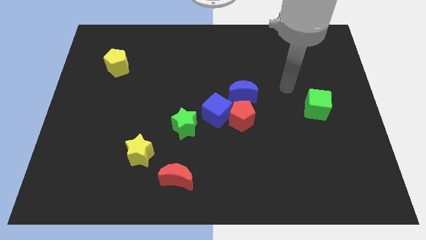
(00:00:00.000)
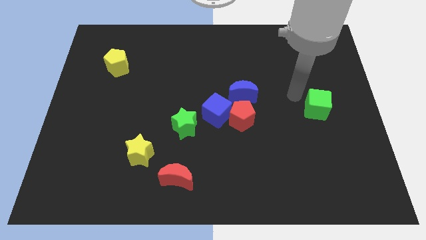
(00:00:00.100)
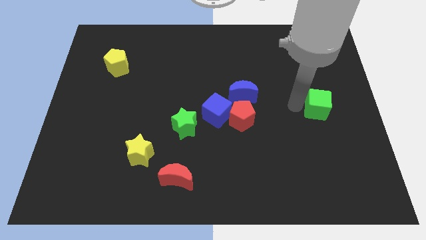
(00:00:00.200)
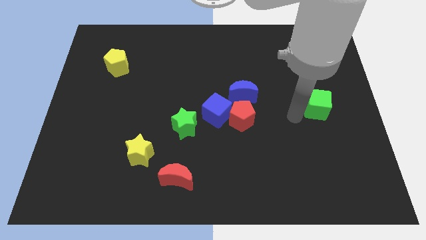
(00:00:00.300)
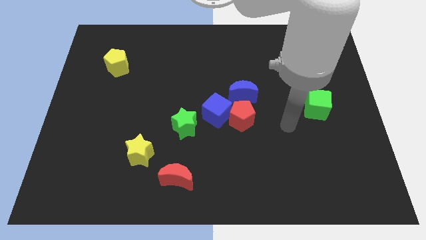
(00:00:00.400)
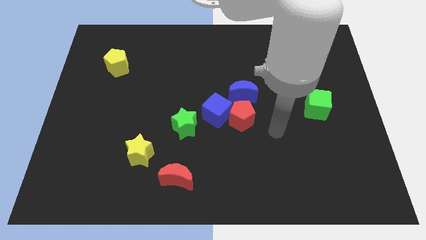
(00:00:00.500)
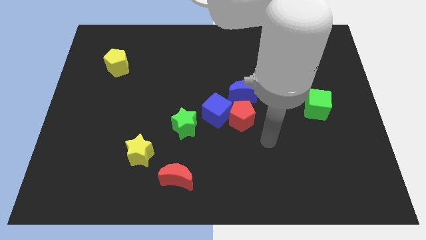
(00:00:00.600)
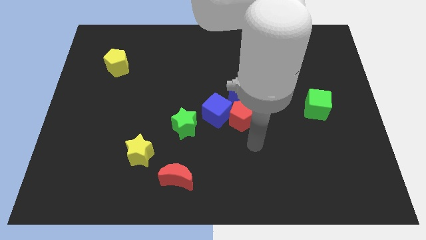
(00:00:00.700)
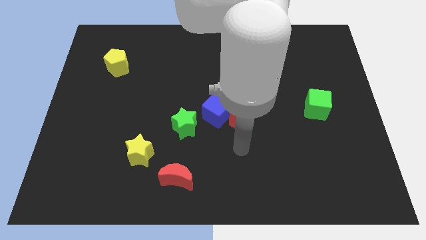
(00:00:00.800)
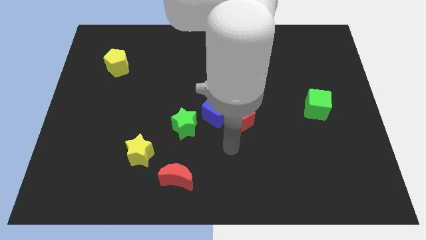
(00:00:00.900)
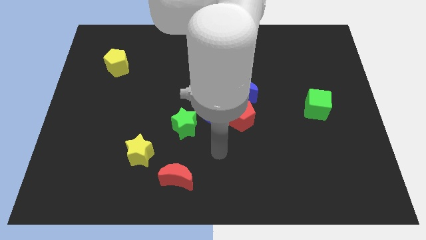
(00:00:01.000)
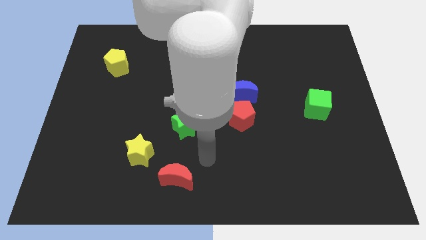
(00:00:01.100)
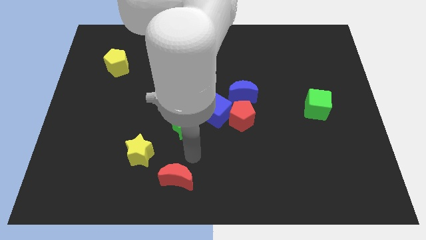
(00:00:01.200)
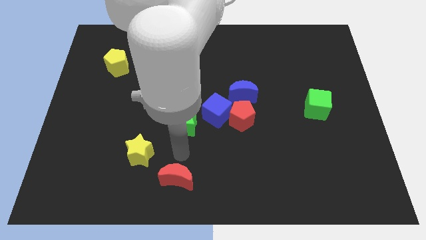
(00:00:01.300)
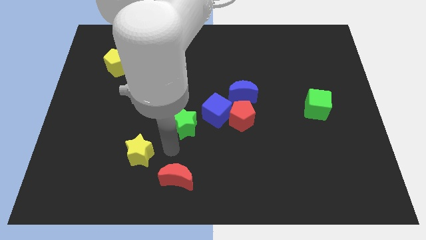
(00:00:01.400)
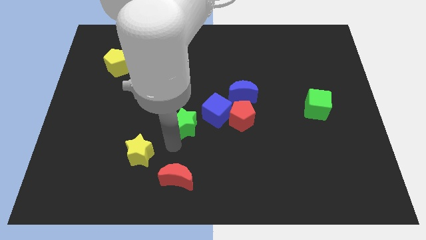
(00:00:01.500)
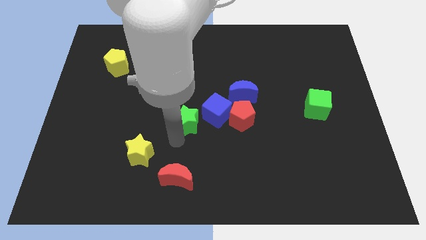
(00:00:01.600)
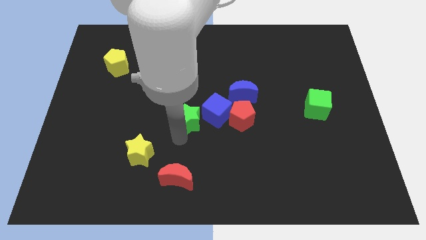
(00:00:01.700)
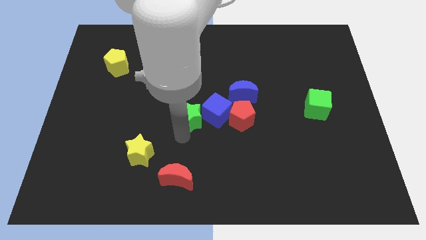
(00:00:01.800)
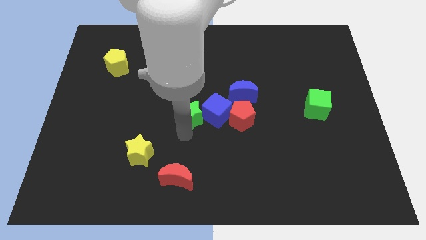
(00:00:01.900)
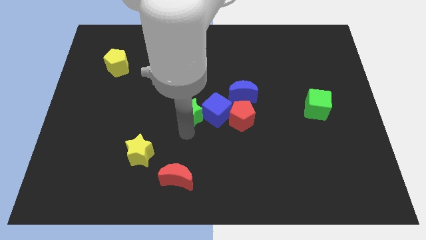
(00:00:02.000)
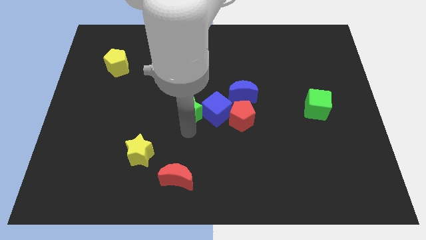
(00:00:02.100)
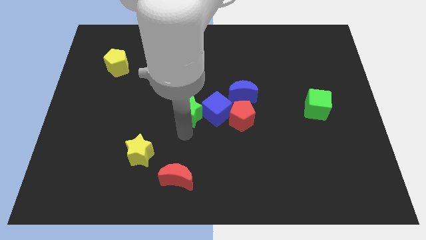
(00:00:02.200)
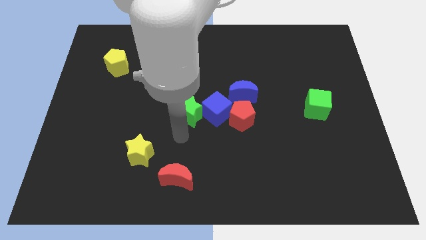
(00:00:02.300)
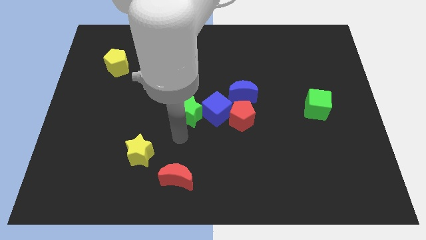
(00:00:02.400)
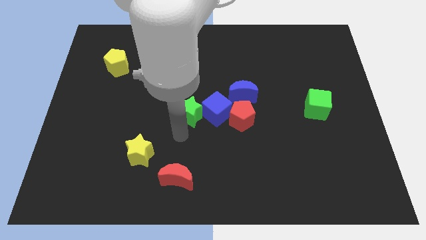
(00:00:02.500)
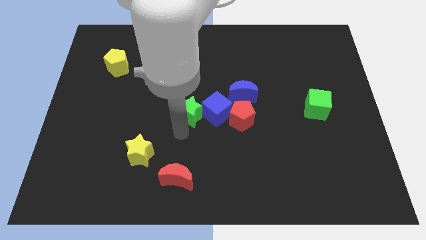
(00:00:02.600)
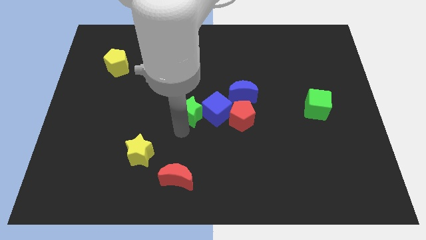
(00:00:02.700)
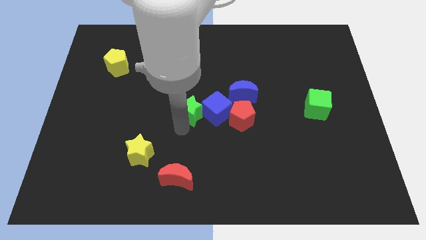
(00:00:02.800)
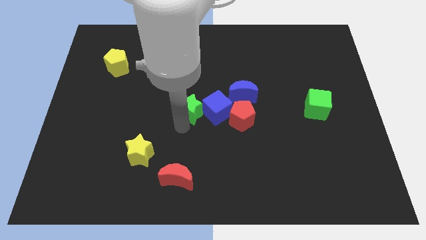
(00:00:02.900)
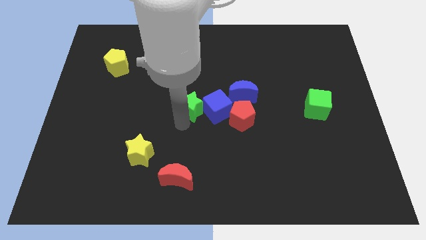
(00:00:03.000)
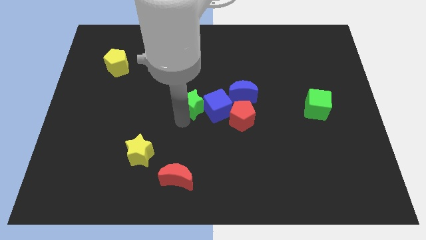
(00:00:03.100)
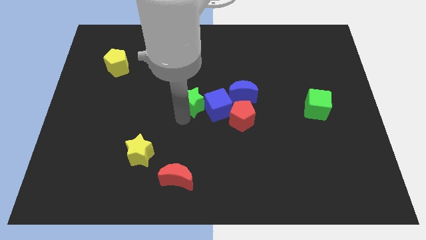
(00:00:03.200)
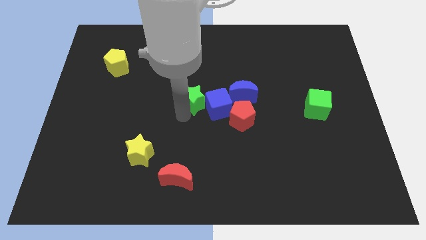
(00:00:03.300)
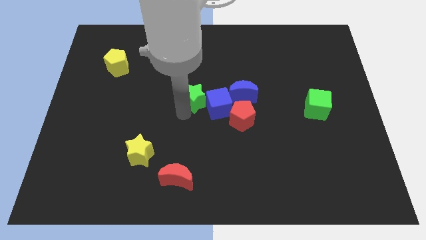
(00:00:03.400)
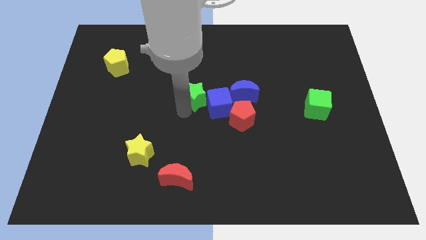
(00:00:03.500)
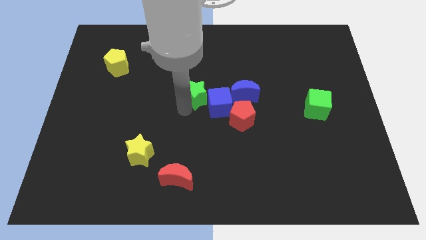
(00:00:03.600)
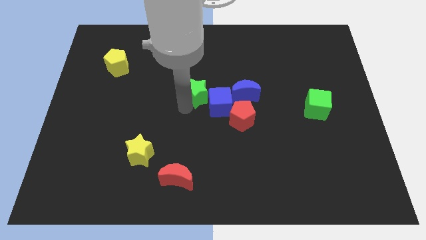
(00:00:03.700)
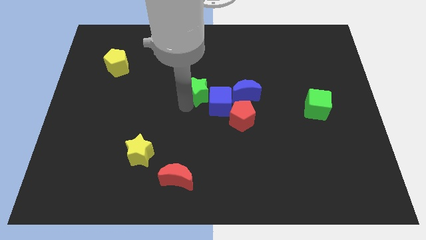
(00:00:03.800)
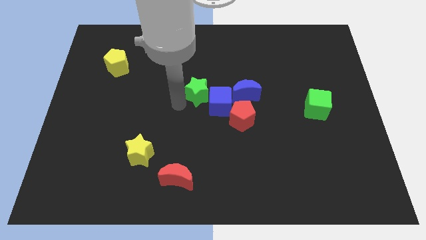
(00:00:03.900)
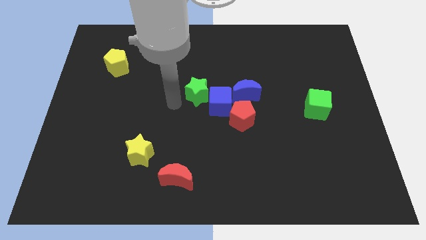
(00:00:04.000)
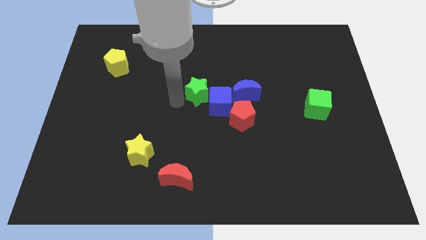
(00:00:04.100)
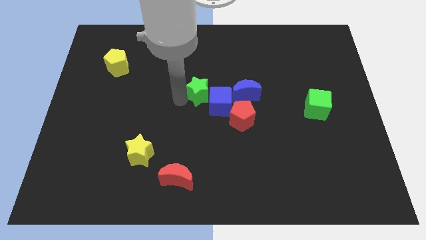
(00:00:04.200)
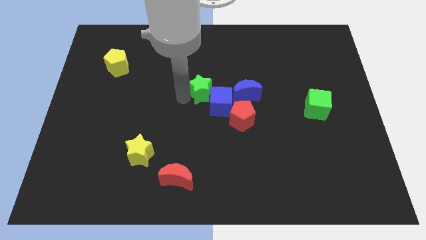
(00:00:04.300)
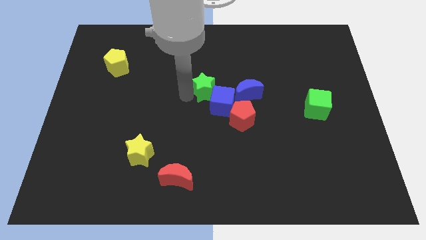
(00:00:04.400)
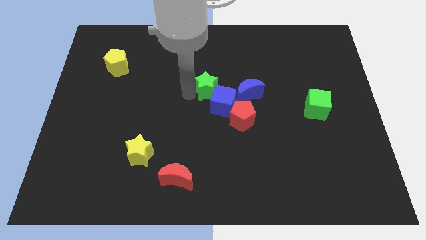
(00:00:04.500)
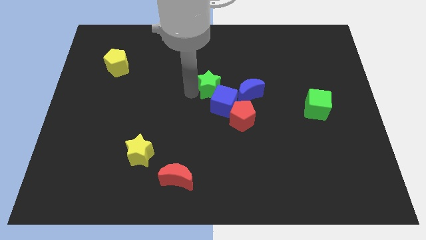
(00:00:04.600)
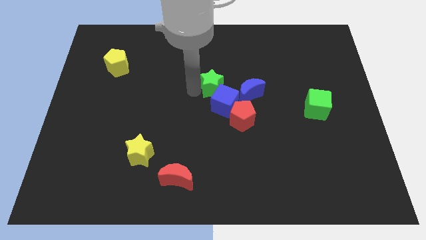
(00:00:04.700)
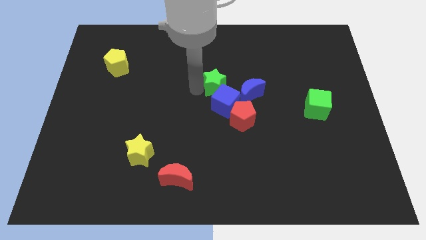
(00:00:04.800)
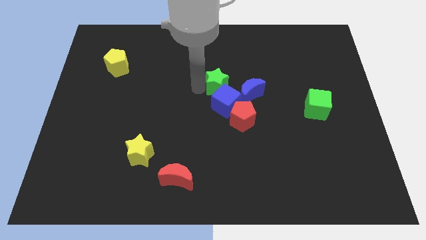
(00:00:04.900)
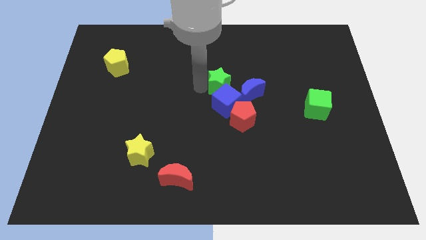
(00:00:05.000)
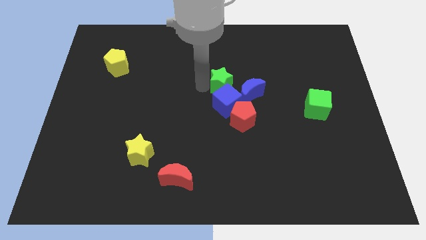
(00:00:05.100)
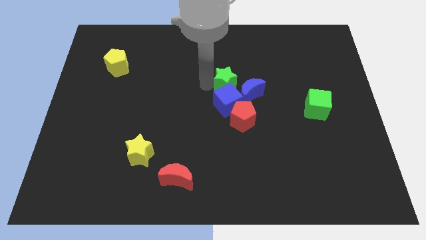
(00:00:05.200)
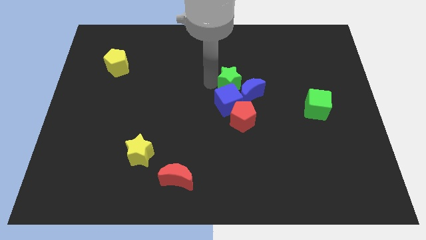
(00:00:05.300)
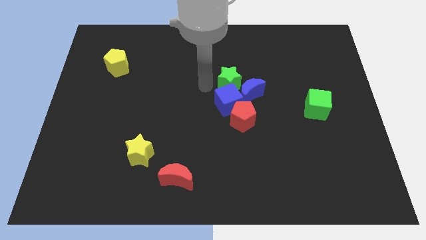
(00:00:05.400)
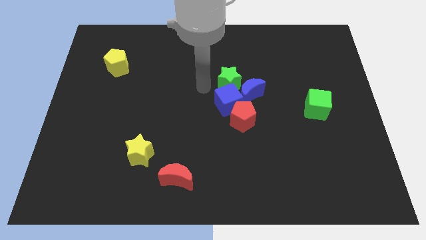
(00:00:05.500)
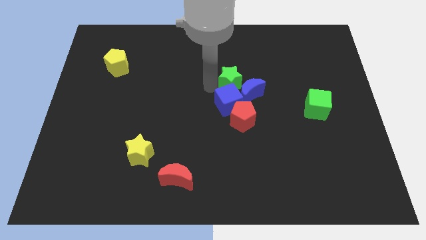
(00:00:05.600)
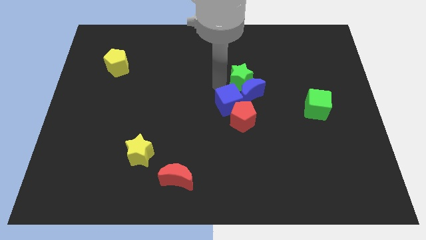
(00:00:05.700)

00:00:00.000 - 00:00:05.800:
move the green star to the top right of the blue moon

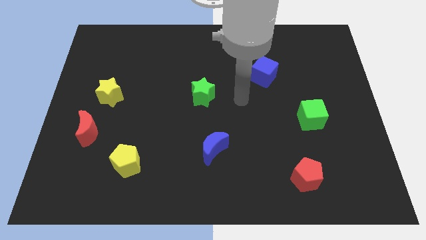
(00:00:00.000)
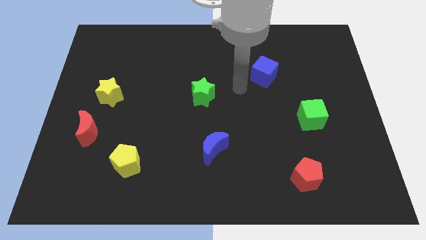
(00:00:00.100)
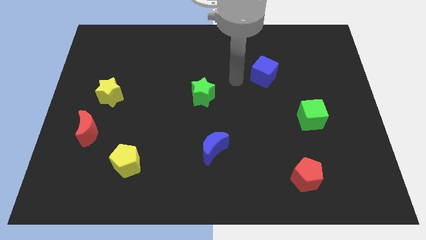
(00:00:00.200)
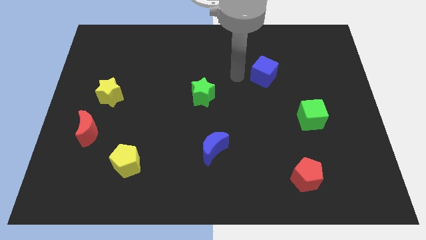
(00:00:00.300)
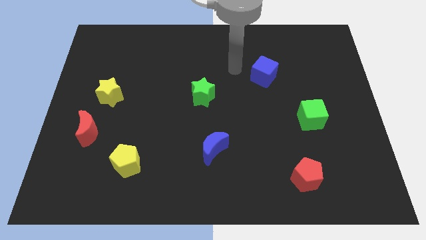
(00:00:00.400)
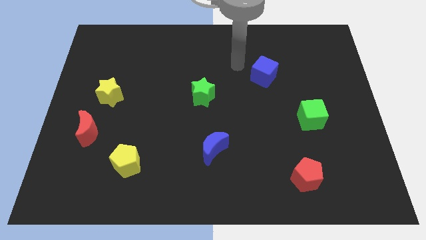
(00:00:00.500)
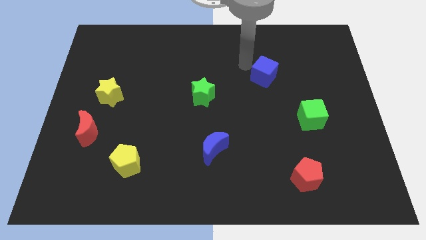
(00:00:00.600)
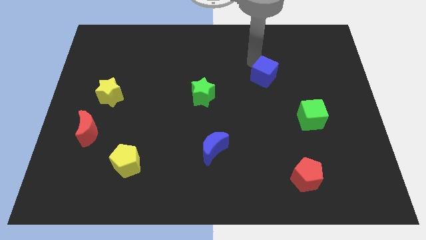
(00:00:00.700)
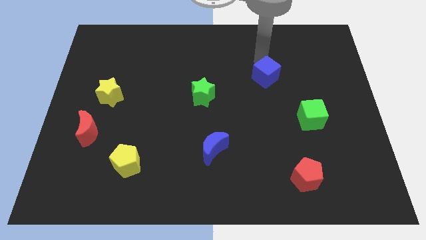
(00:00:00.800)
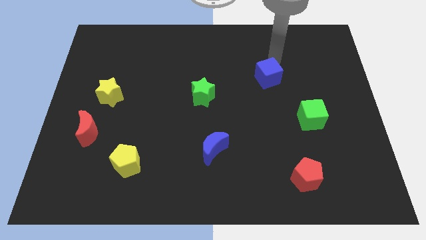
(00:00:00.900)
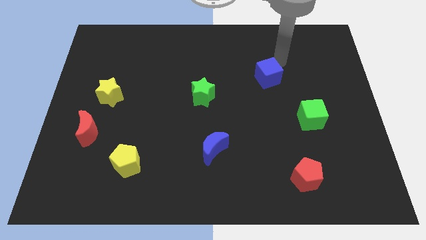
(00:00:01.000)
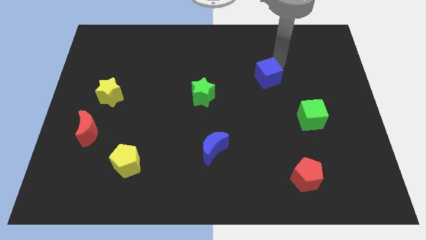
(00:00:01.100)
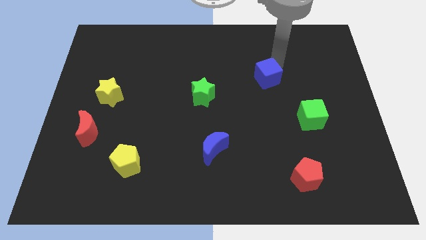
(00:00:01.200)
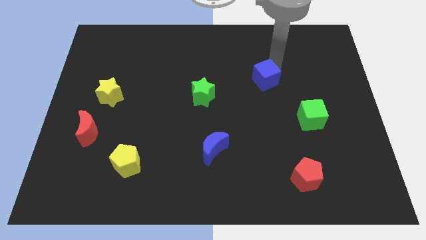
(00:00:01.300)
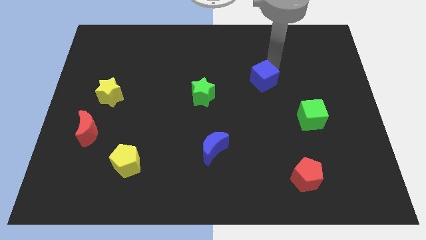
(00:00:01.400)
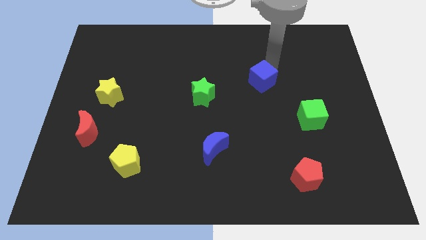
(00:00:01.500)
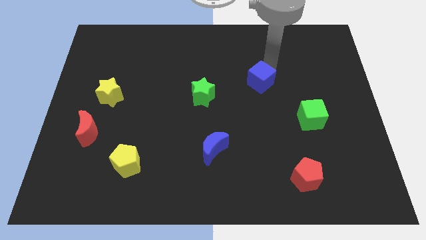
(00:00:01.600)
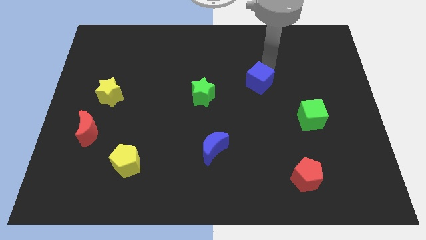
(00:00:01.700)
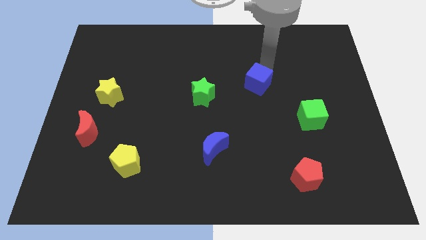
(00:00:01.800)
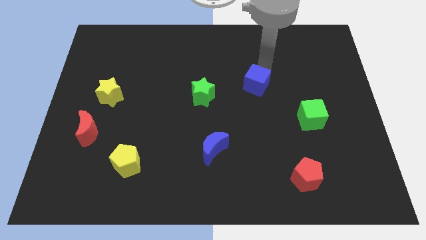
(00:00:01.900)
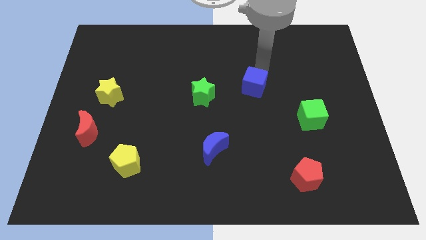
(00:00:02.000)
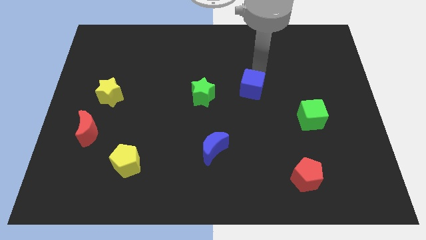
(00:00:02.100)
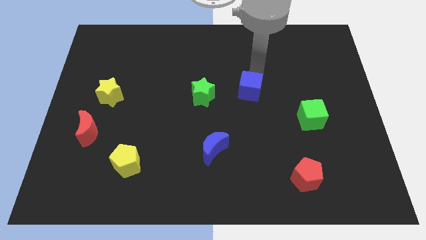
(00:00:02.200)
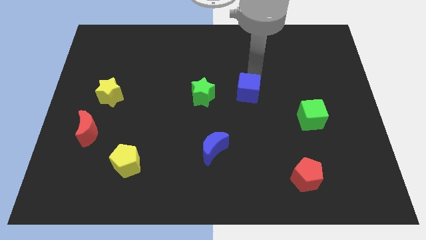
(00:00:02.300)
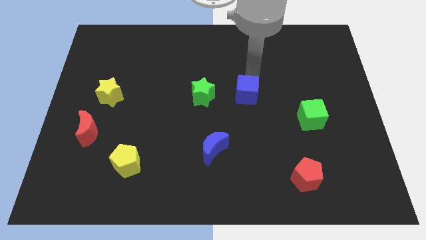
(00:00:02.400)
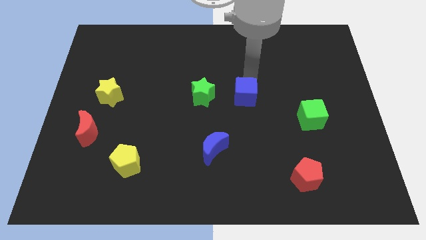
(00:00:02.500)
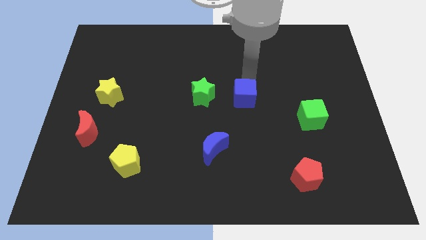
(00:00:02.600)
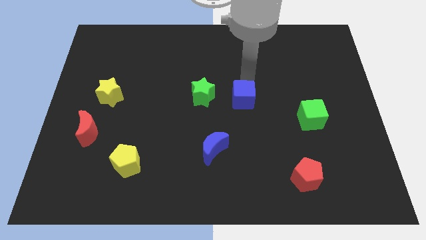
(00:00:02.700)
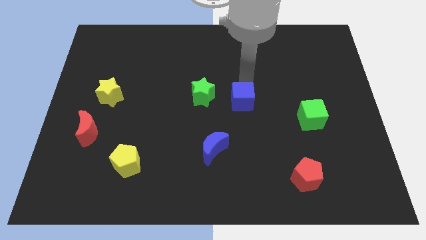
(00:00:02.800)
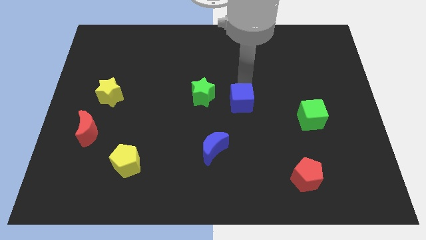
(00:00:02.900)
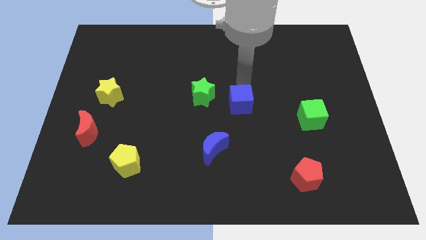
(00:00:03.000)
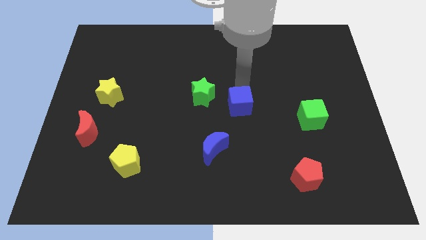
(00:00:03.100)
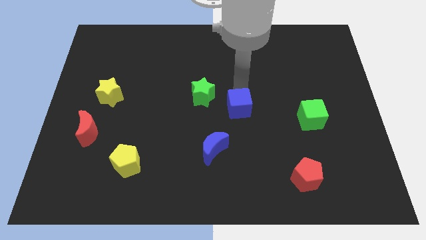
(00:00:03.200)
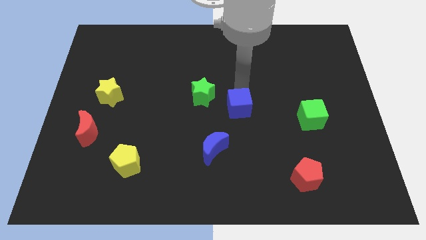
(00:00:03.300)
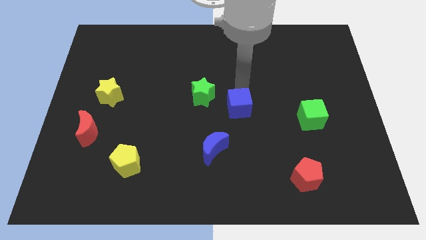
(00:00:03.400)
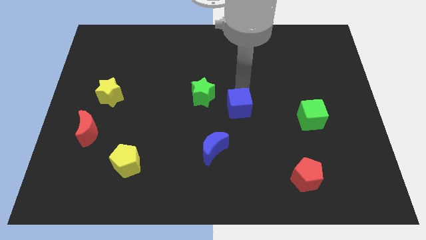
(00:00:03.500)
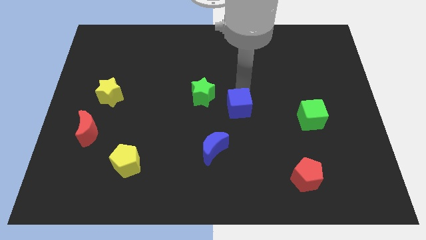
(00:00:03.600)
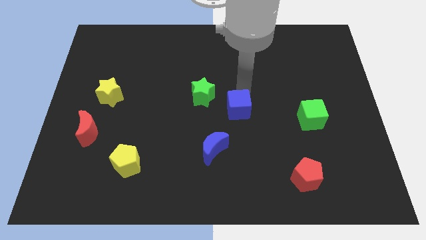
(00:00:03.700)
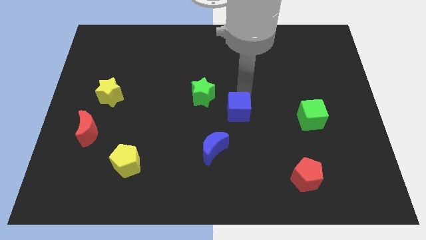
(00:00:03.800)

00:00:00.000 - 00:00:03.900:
move the blue cube diagonally up and to the right of the blue moon
